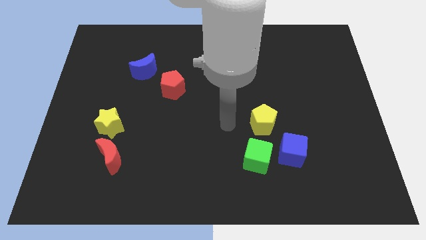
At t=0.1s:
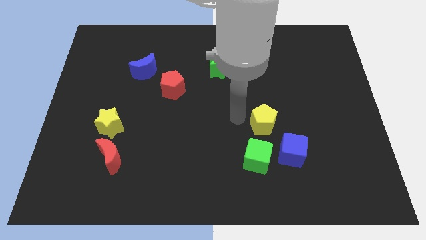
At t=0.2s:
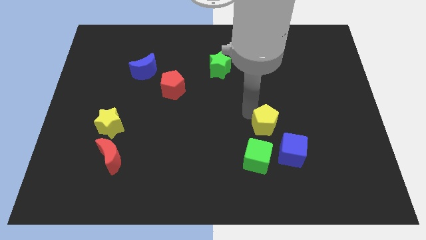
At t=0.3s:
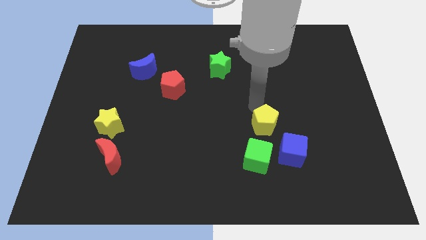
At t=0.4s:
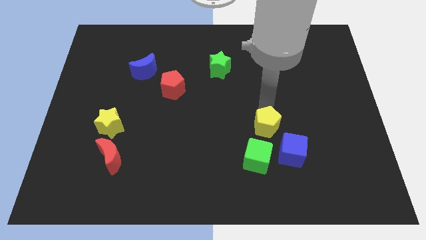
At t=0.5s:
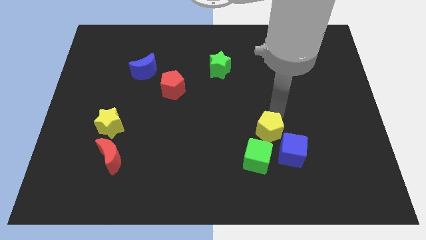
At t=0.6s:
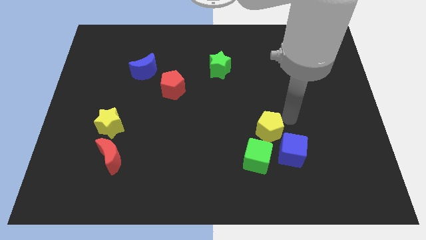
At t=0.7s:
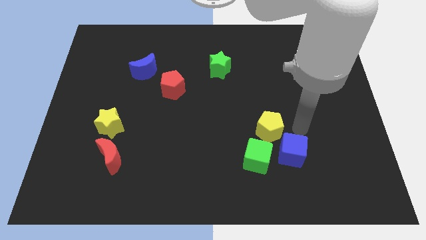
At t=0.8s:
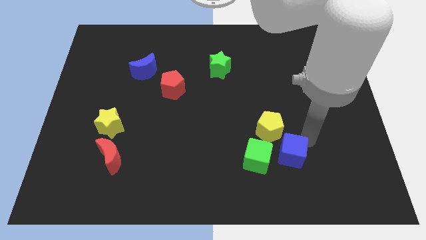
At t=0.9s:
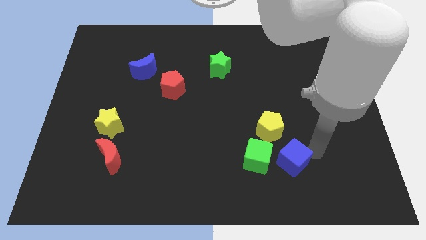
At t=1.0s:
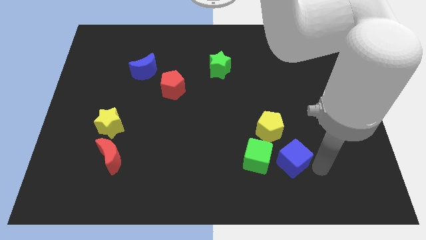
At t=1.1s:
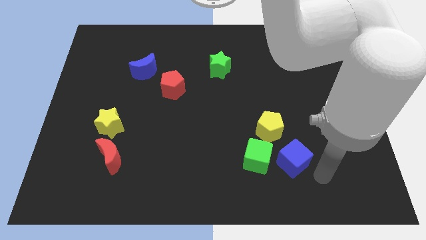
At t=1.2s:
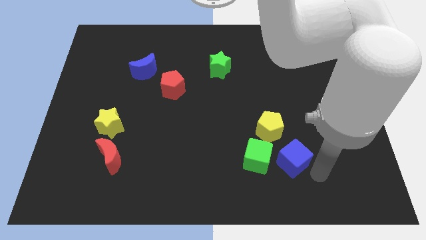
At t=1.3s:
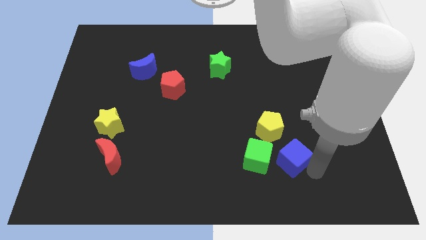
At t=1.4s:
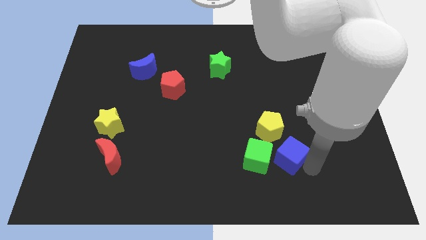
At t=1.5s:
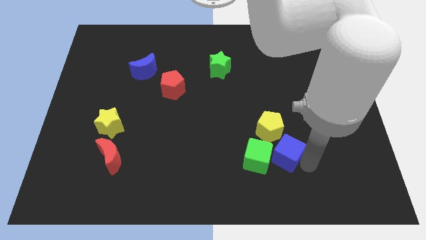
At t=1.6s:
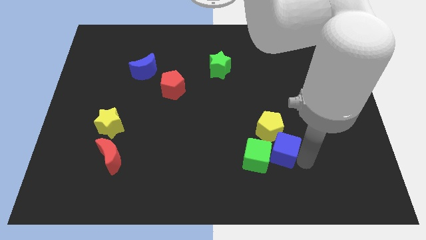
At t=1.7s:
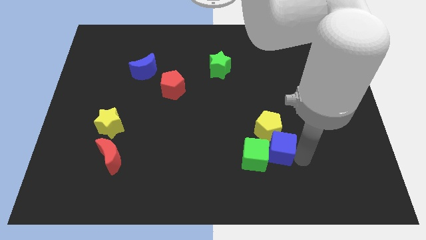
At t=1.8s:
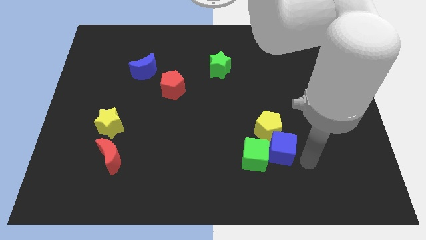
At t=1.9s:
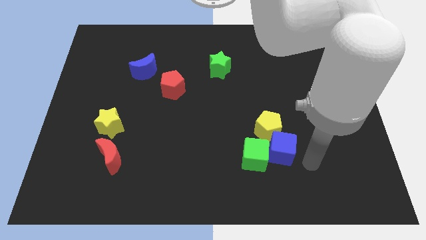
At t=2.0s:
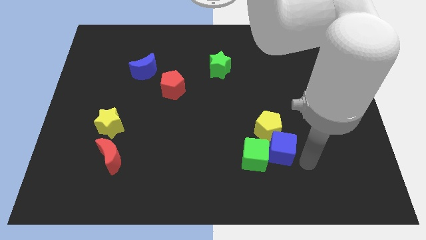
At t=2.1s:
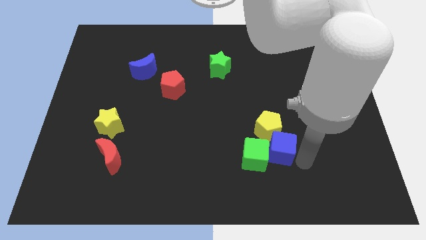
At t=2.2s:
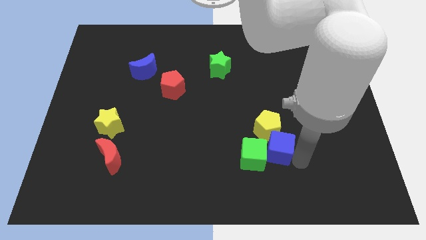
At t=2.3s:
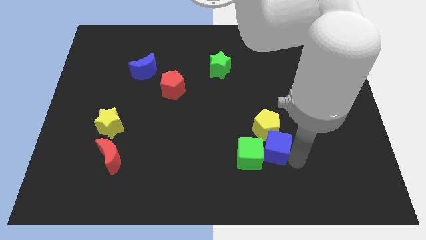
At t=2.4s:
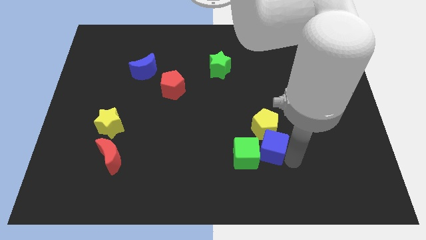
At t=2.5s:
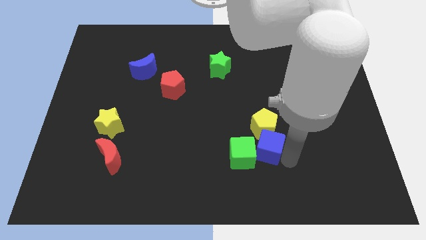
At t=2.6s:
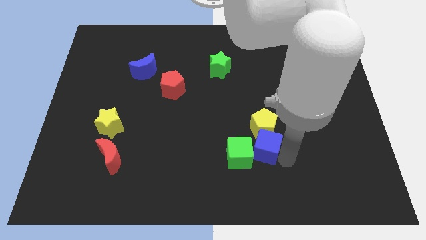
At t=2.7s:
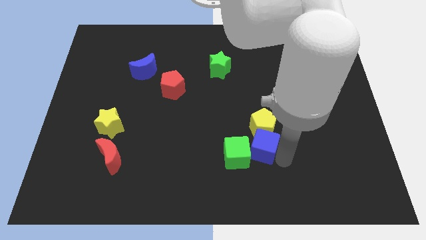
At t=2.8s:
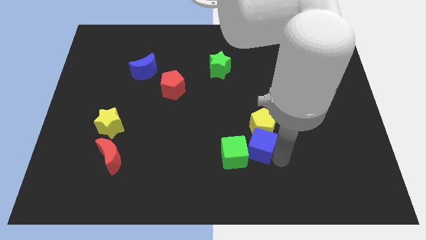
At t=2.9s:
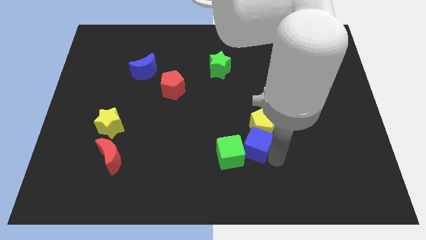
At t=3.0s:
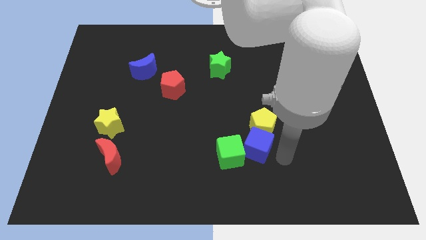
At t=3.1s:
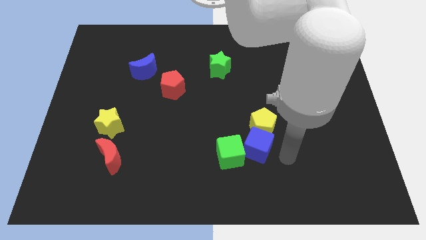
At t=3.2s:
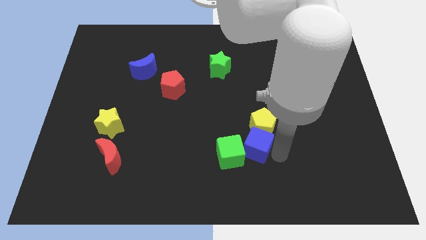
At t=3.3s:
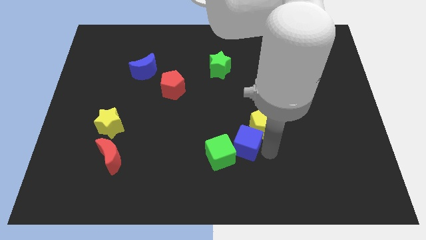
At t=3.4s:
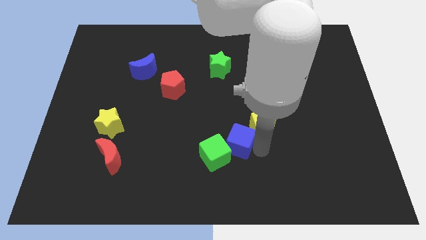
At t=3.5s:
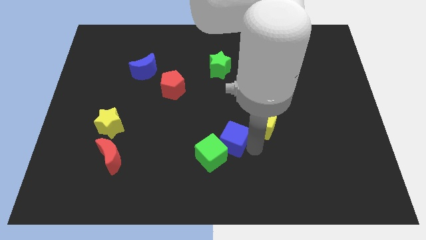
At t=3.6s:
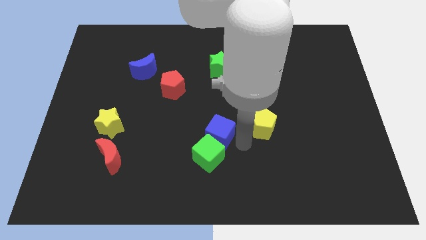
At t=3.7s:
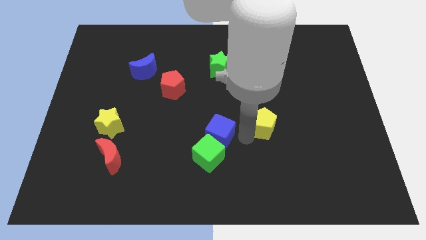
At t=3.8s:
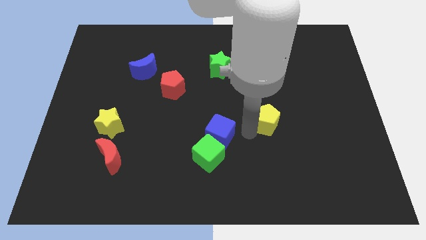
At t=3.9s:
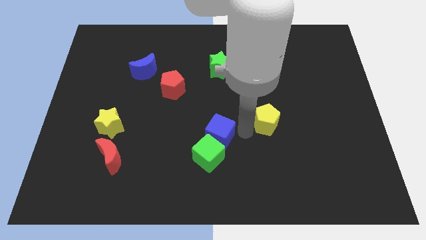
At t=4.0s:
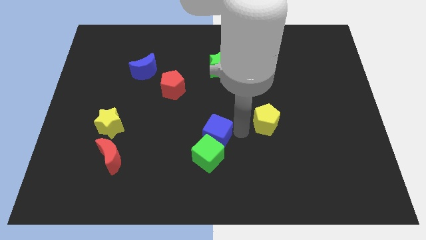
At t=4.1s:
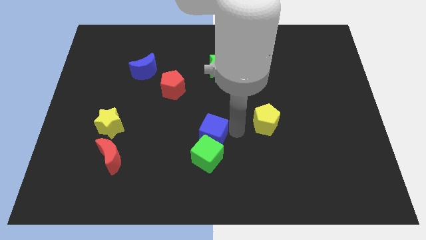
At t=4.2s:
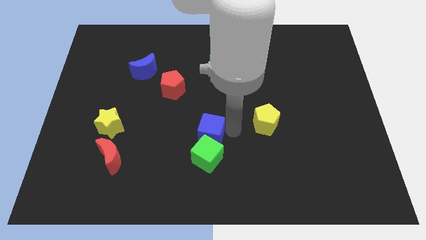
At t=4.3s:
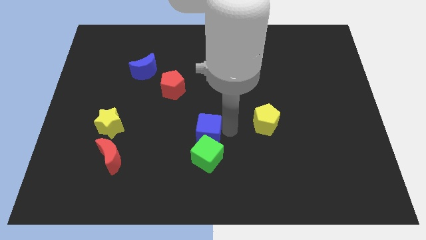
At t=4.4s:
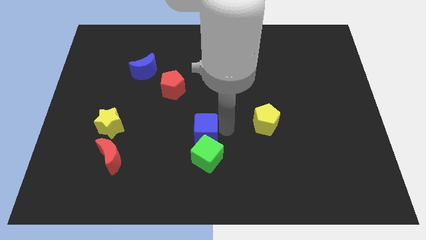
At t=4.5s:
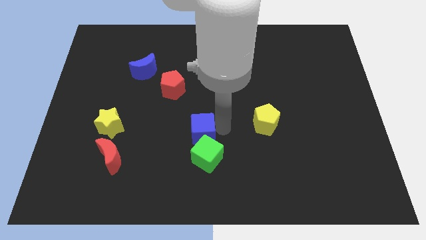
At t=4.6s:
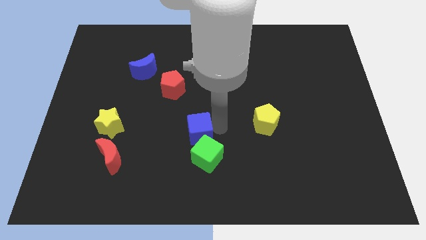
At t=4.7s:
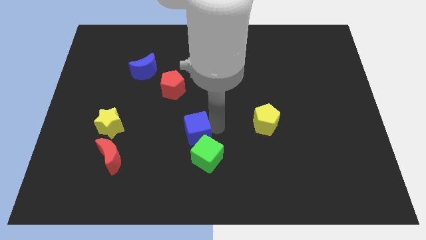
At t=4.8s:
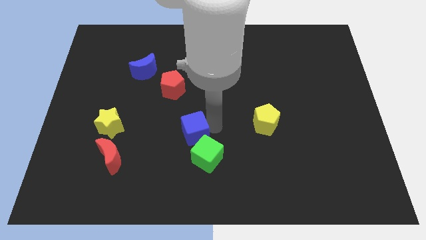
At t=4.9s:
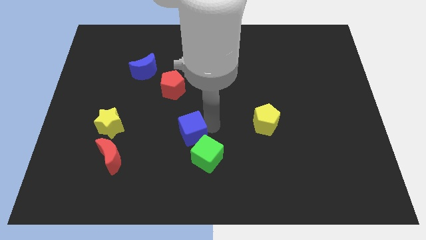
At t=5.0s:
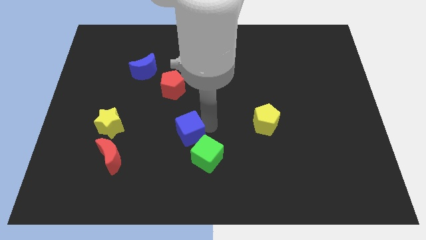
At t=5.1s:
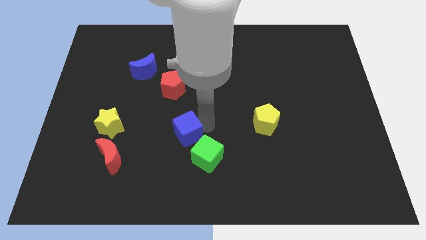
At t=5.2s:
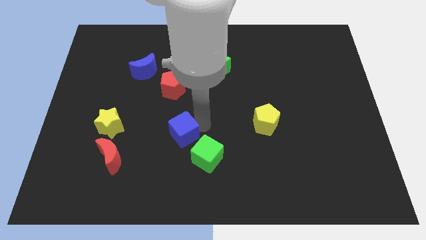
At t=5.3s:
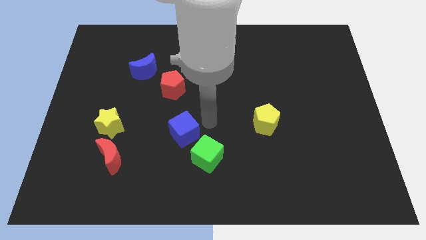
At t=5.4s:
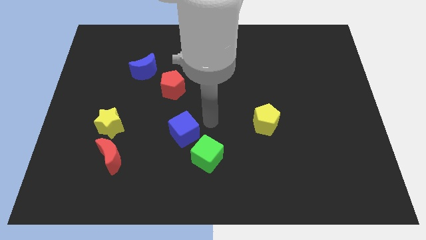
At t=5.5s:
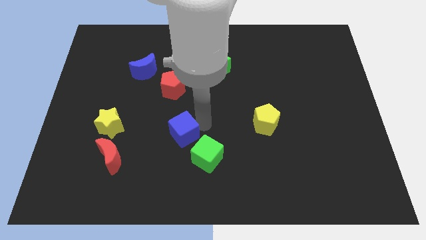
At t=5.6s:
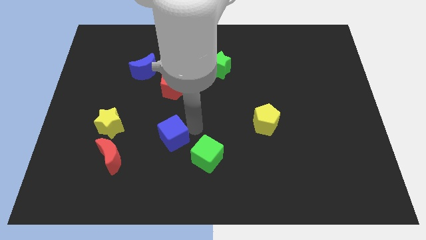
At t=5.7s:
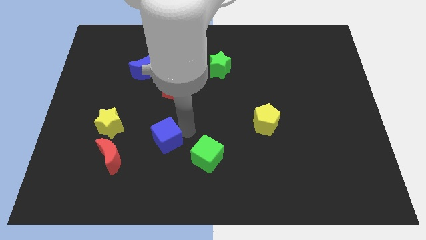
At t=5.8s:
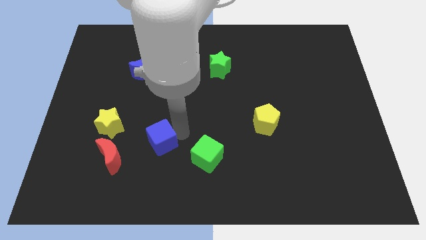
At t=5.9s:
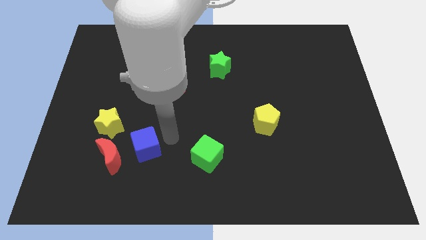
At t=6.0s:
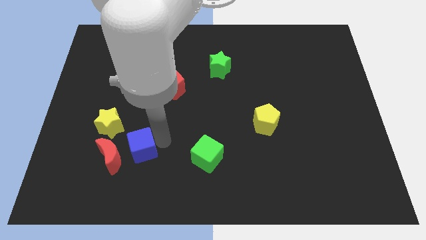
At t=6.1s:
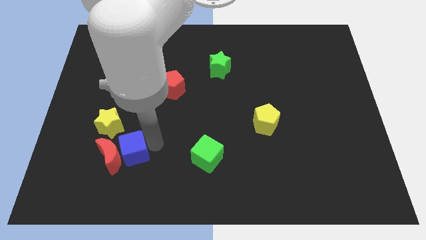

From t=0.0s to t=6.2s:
move the blue cube next to the red moon

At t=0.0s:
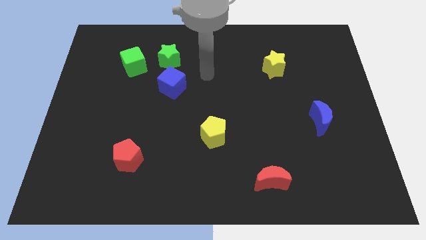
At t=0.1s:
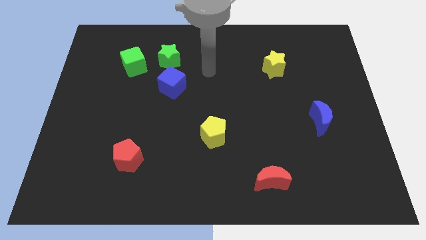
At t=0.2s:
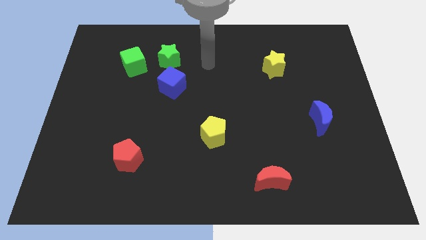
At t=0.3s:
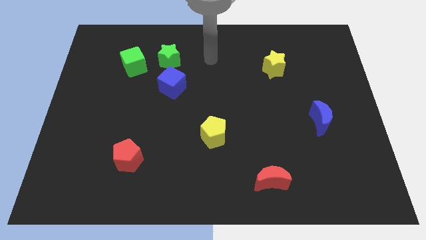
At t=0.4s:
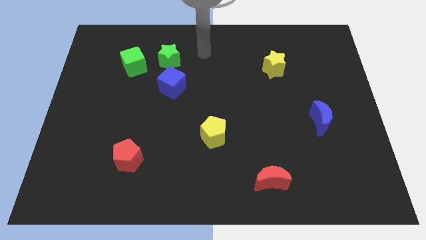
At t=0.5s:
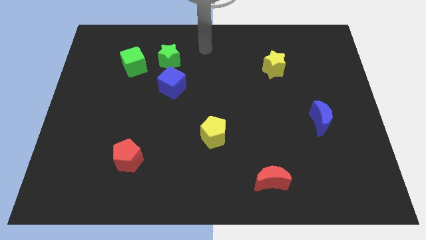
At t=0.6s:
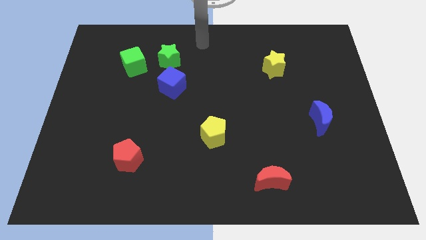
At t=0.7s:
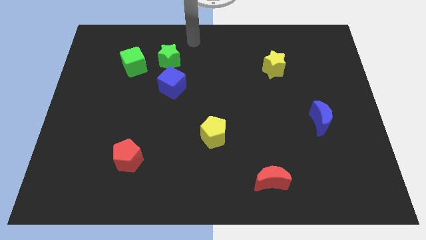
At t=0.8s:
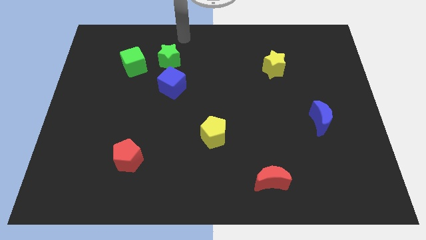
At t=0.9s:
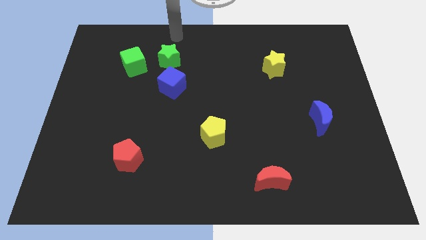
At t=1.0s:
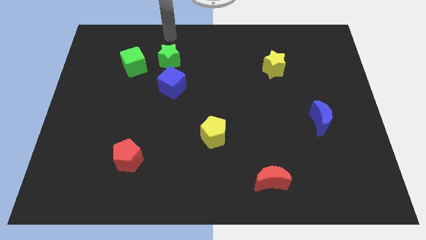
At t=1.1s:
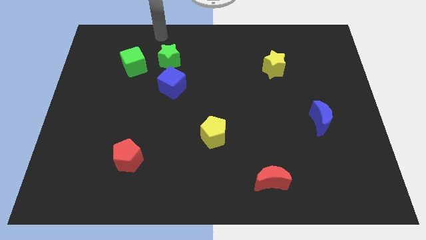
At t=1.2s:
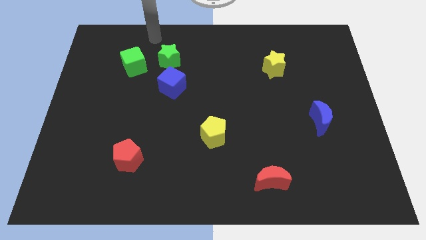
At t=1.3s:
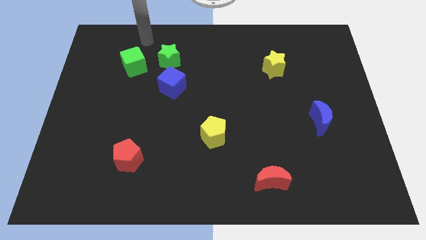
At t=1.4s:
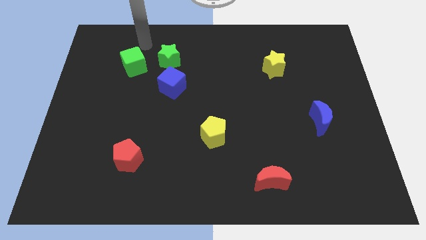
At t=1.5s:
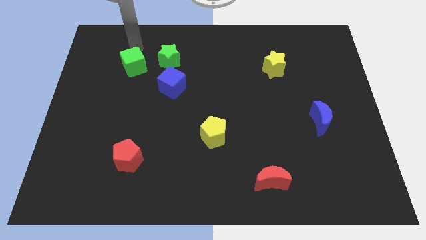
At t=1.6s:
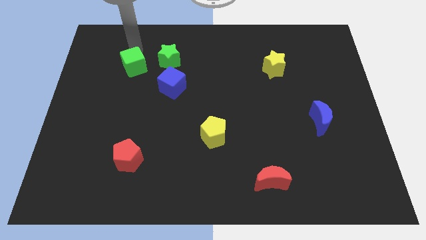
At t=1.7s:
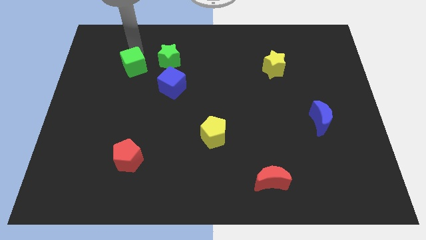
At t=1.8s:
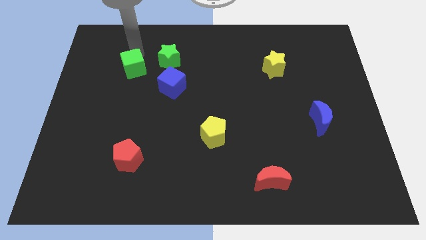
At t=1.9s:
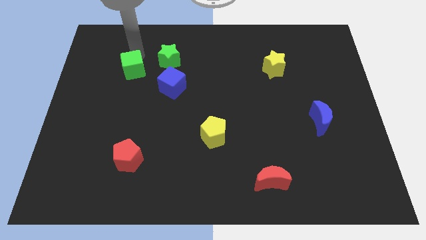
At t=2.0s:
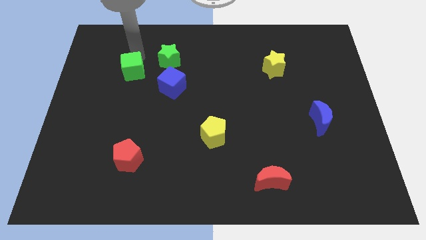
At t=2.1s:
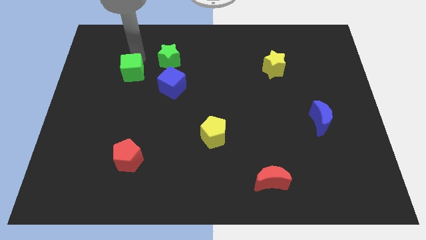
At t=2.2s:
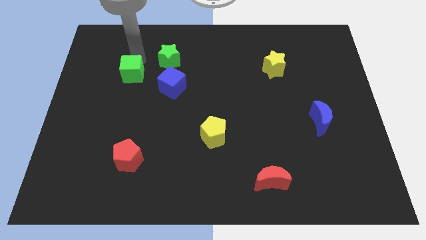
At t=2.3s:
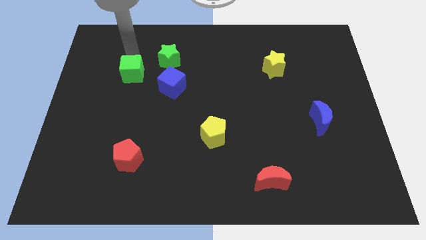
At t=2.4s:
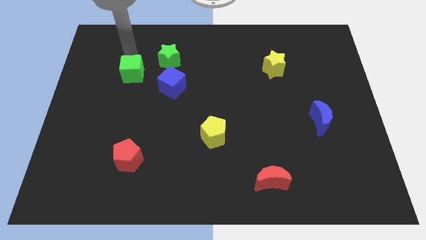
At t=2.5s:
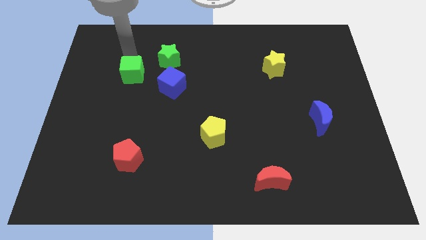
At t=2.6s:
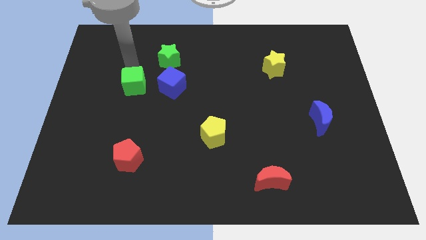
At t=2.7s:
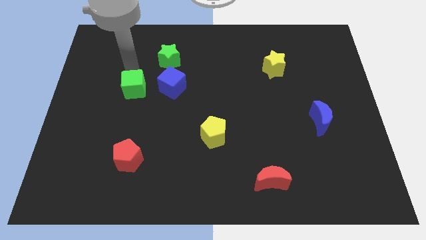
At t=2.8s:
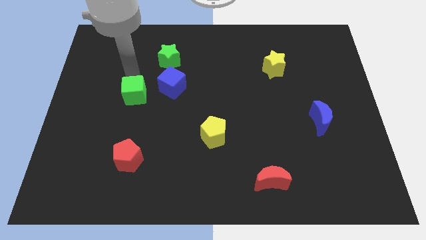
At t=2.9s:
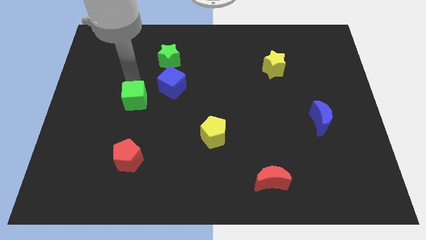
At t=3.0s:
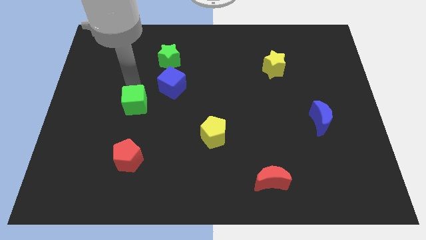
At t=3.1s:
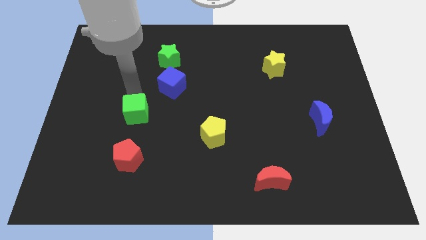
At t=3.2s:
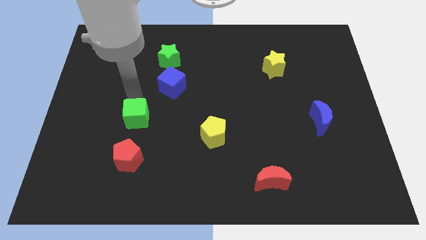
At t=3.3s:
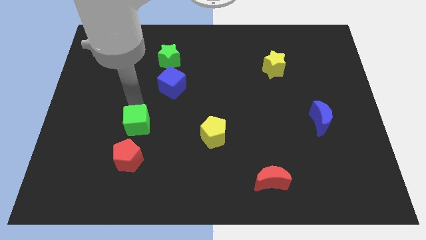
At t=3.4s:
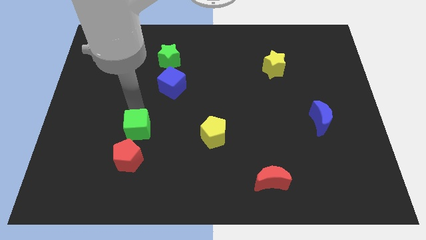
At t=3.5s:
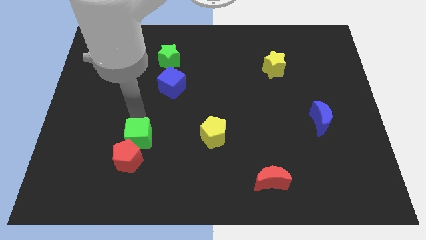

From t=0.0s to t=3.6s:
push the green cube towards the red pentagon
